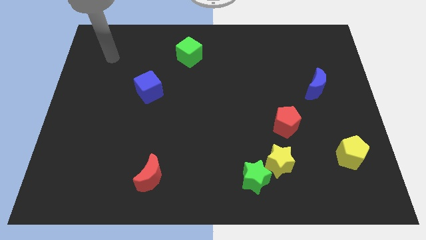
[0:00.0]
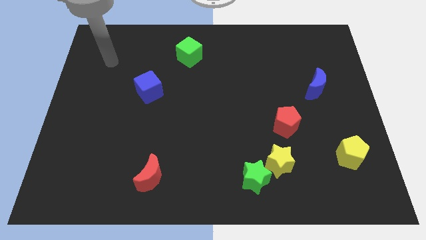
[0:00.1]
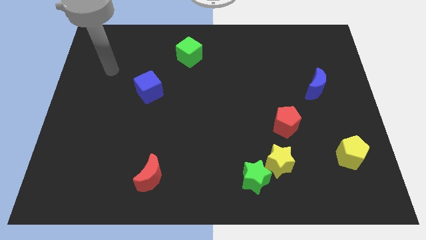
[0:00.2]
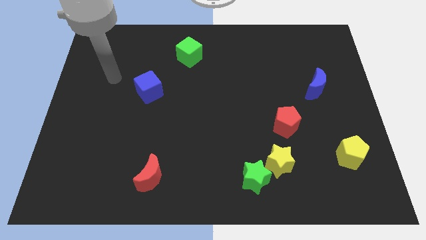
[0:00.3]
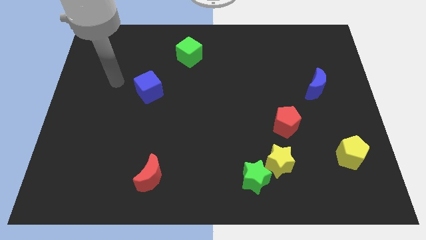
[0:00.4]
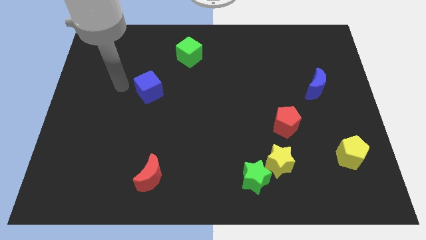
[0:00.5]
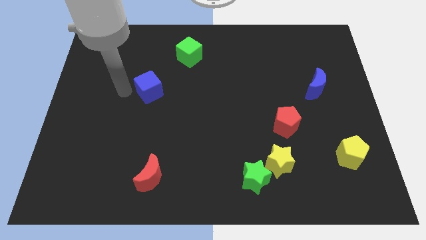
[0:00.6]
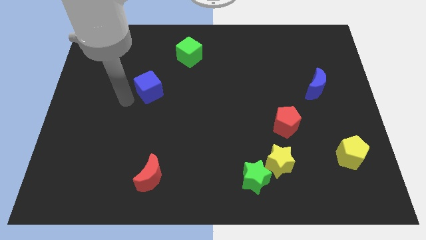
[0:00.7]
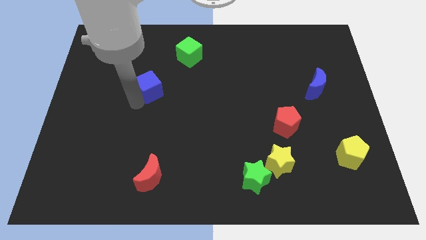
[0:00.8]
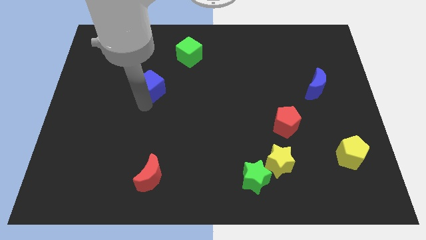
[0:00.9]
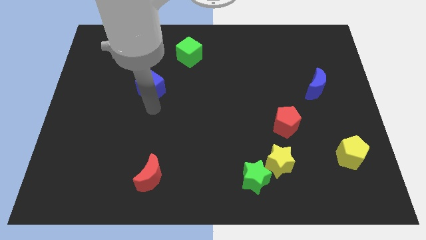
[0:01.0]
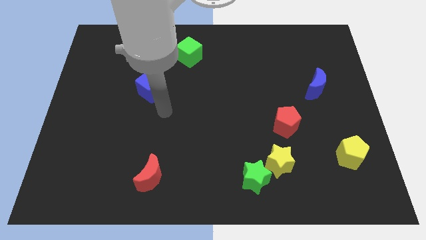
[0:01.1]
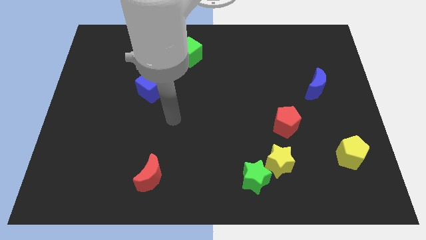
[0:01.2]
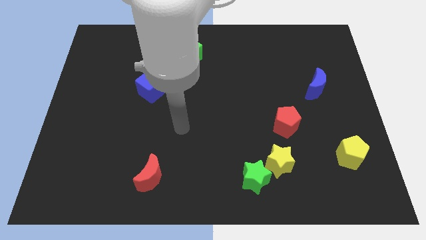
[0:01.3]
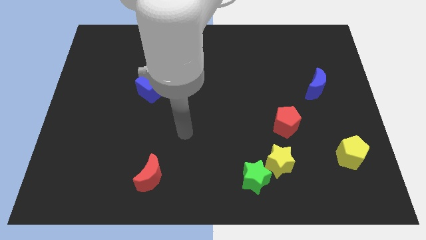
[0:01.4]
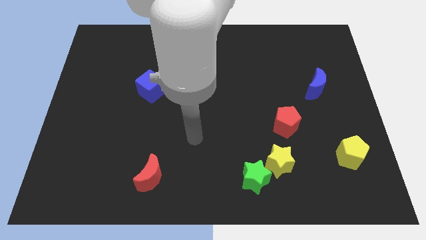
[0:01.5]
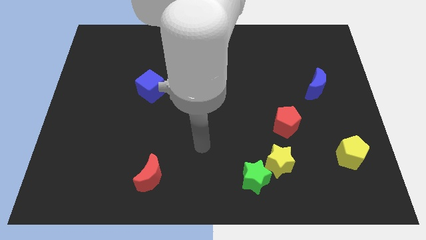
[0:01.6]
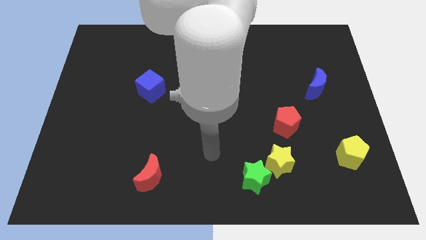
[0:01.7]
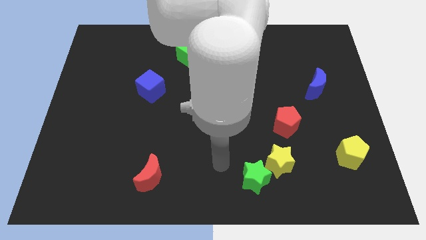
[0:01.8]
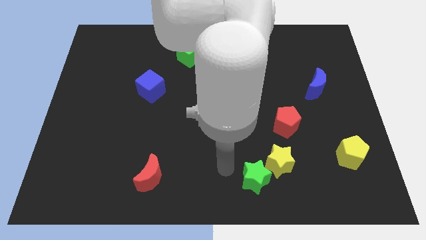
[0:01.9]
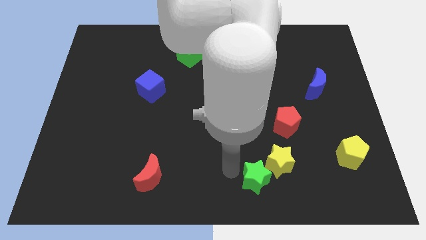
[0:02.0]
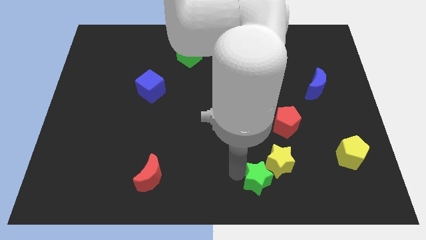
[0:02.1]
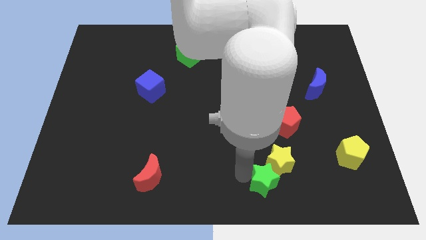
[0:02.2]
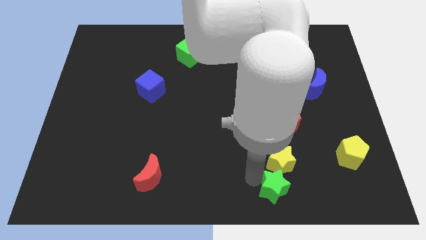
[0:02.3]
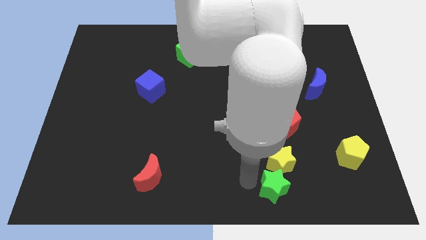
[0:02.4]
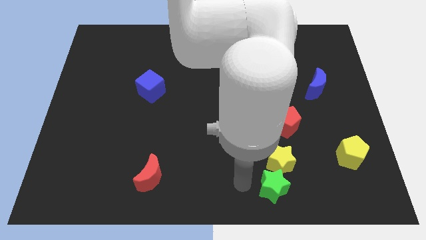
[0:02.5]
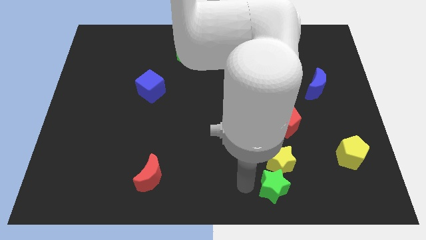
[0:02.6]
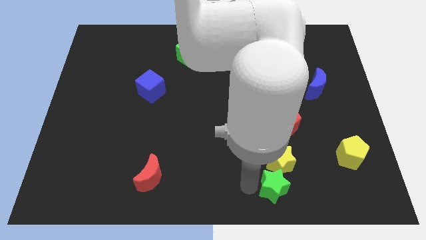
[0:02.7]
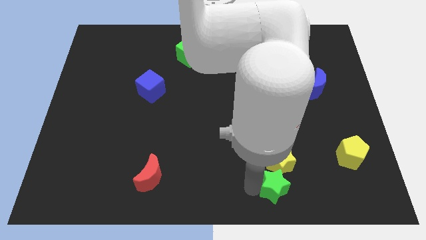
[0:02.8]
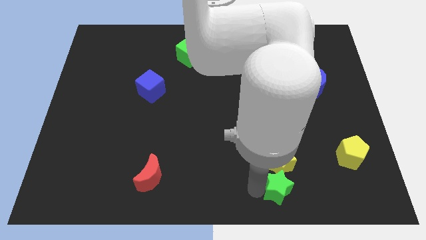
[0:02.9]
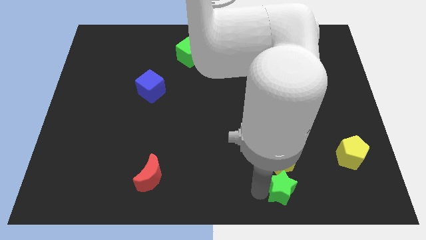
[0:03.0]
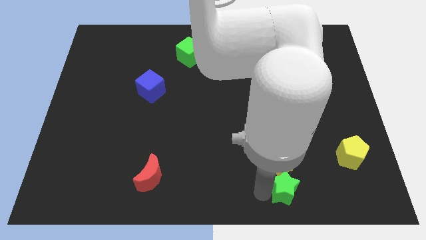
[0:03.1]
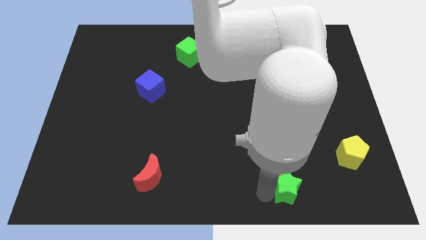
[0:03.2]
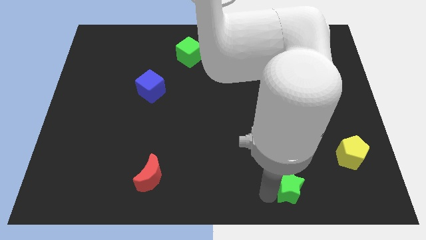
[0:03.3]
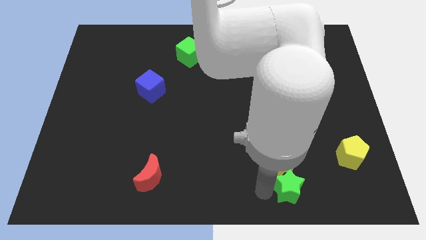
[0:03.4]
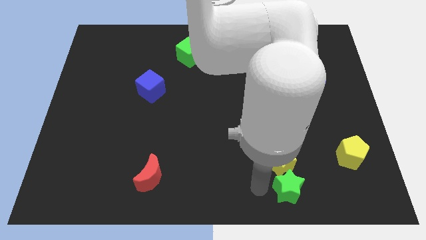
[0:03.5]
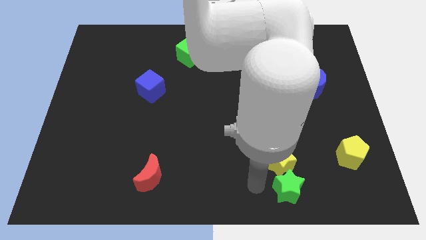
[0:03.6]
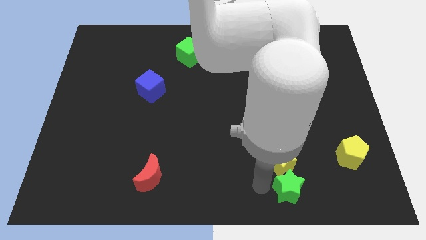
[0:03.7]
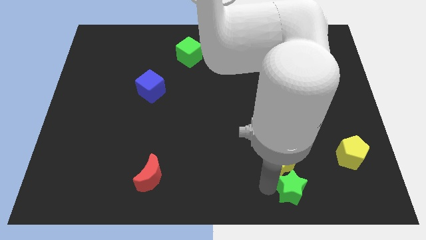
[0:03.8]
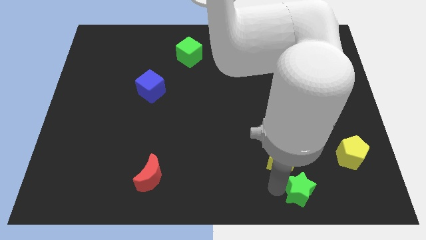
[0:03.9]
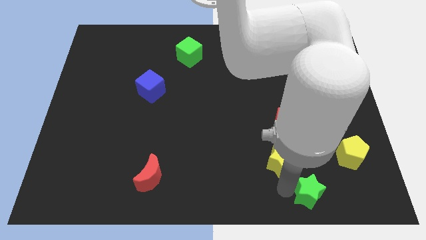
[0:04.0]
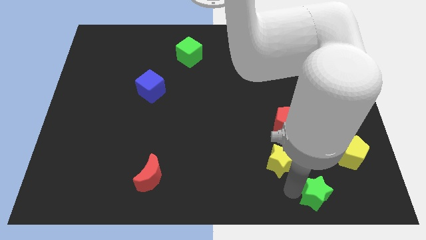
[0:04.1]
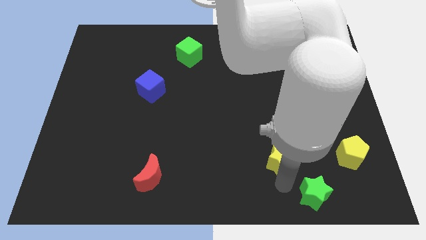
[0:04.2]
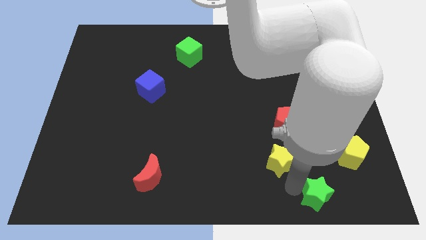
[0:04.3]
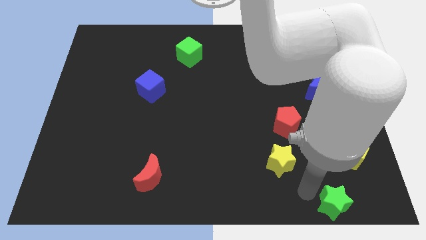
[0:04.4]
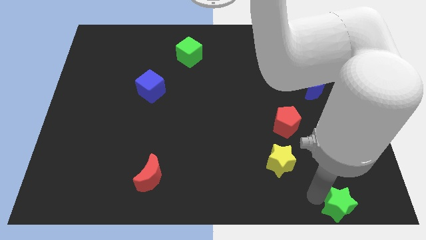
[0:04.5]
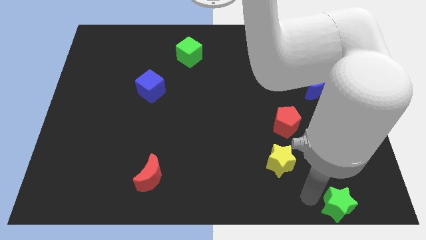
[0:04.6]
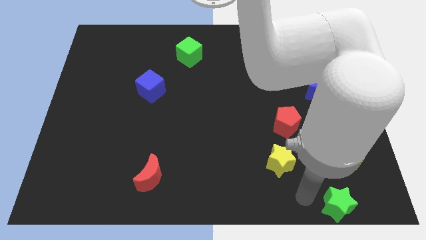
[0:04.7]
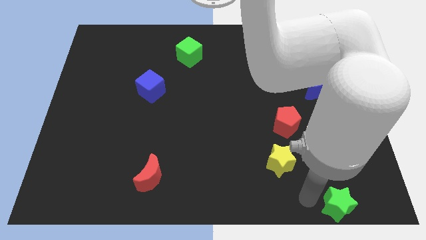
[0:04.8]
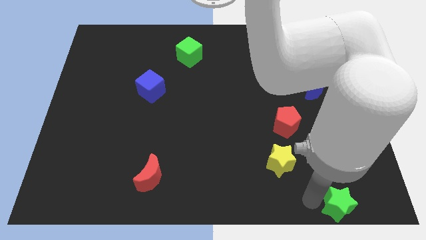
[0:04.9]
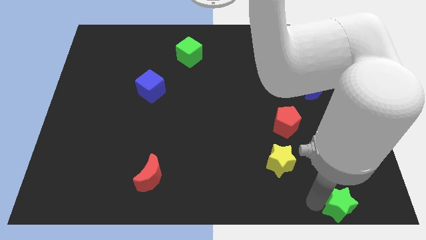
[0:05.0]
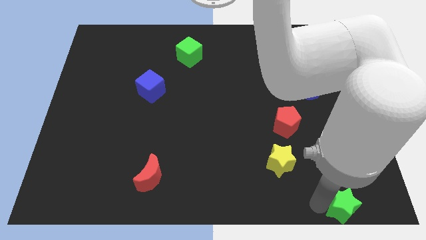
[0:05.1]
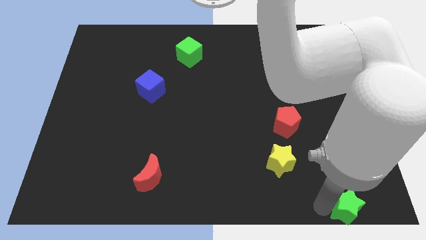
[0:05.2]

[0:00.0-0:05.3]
push the green star to the lower right corner

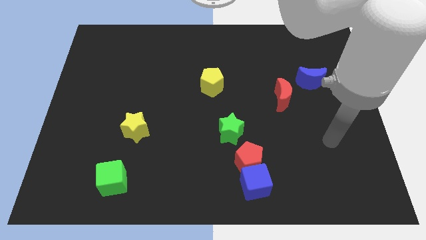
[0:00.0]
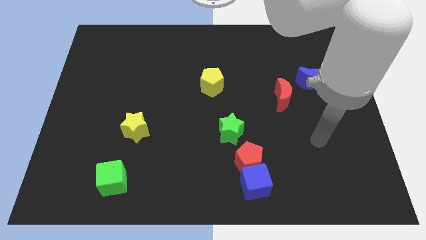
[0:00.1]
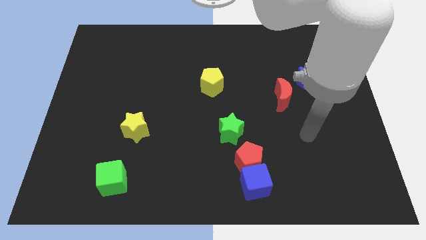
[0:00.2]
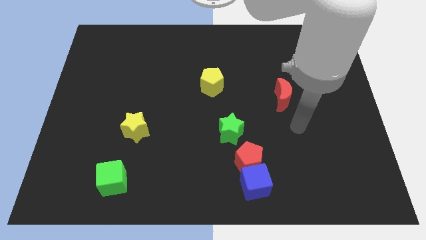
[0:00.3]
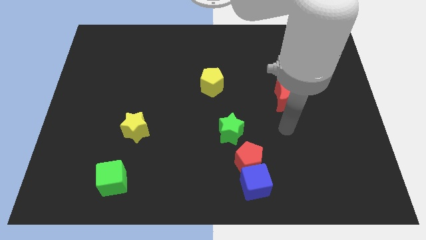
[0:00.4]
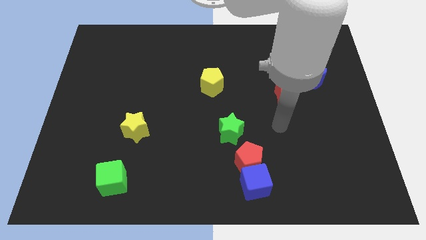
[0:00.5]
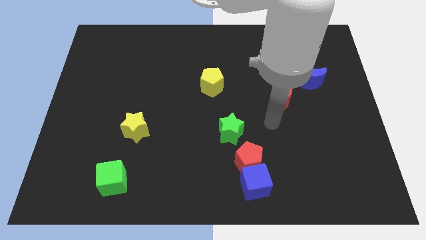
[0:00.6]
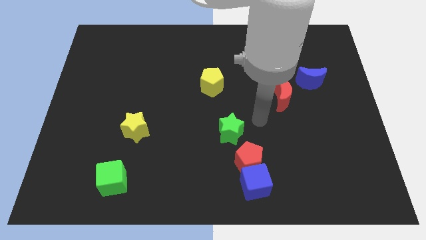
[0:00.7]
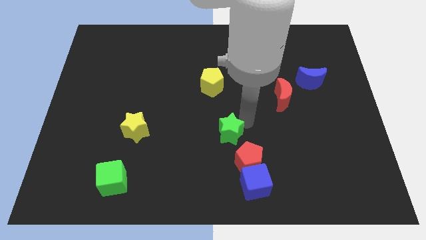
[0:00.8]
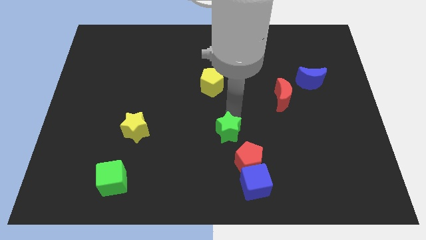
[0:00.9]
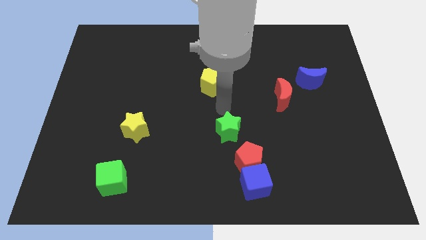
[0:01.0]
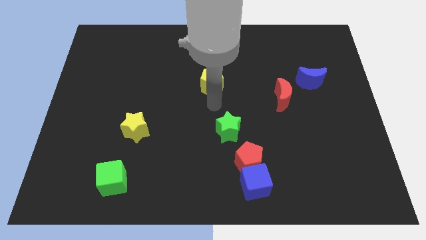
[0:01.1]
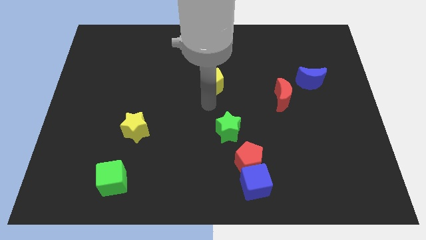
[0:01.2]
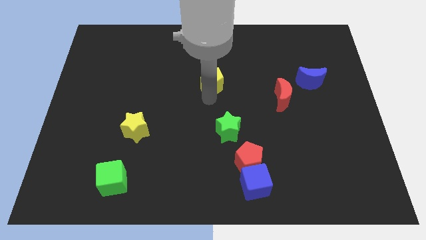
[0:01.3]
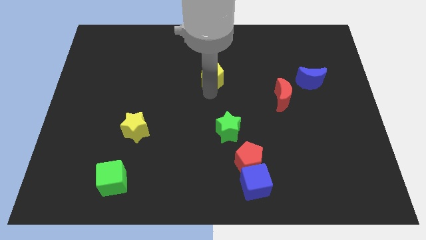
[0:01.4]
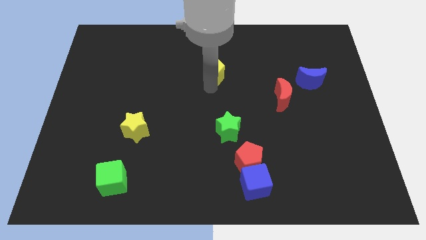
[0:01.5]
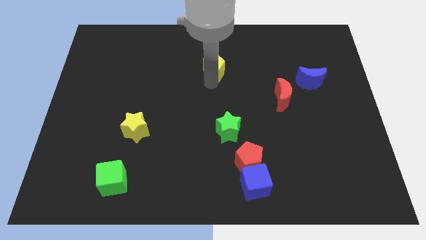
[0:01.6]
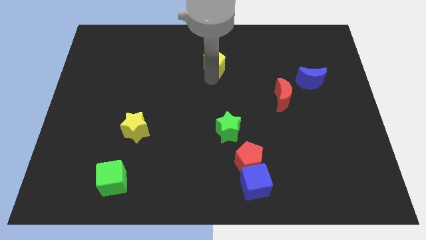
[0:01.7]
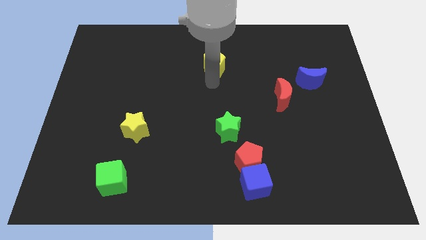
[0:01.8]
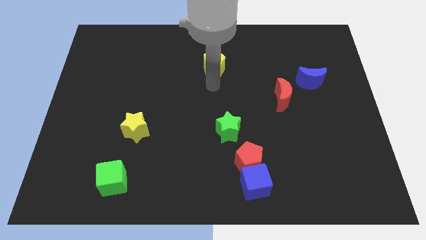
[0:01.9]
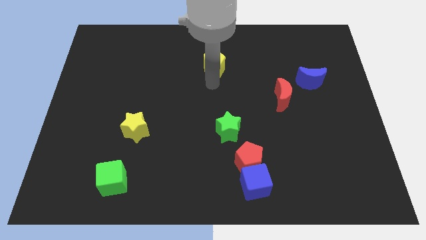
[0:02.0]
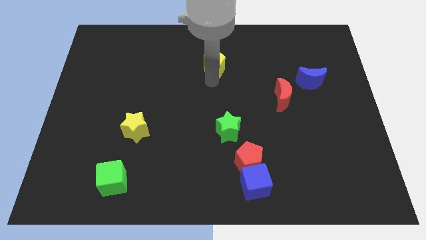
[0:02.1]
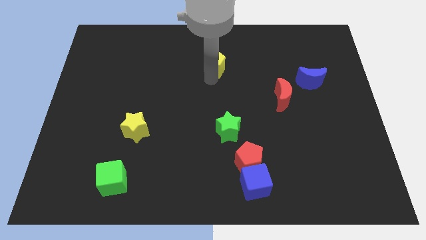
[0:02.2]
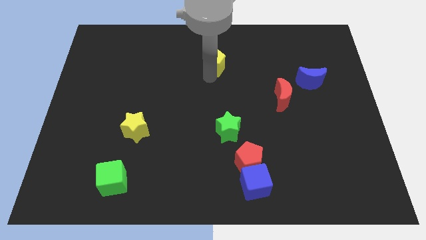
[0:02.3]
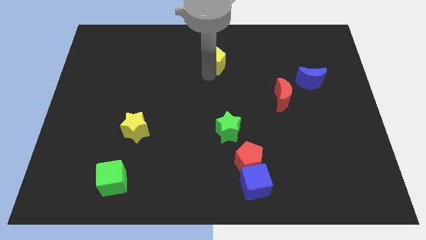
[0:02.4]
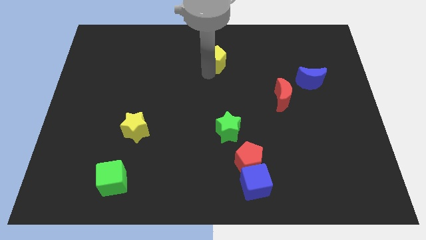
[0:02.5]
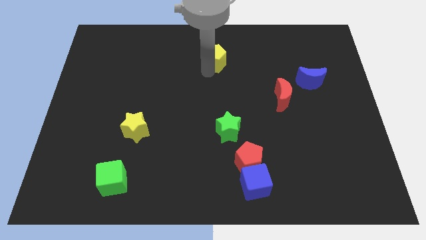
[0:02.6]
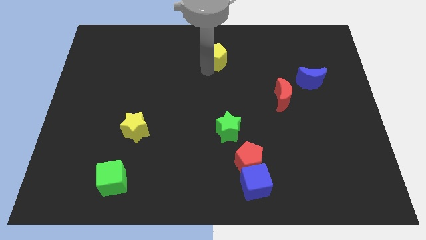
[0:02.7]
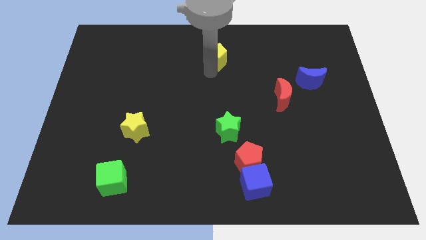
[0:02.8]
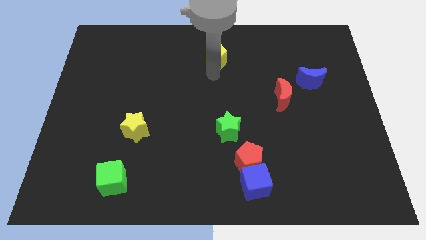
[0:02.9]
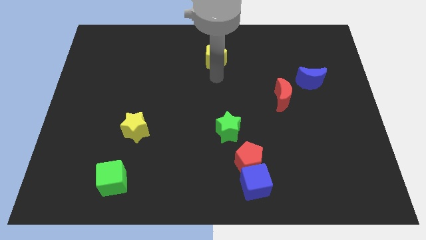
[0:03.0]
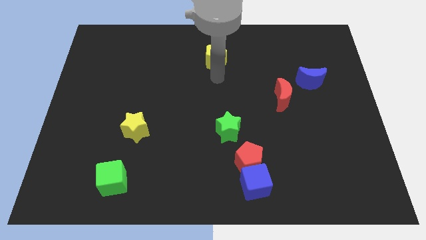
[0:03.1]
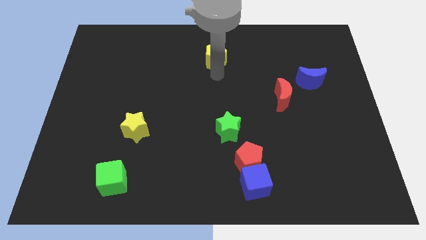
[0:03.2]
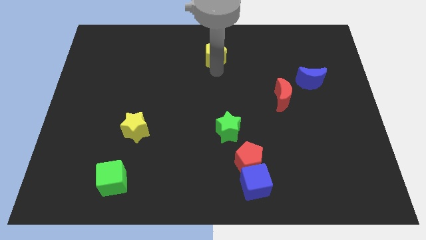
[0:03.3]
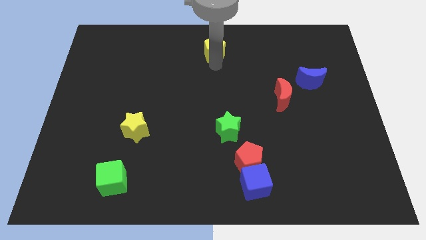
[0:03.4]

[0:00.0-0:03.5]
push the yellow pentagon to the top side
